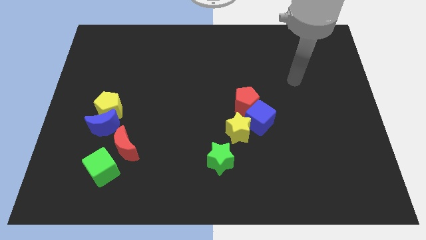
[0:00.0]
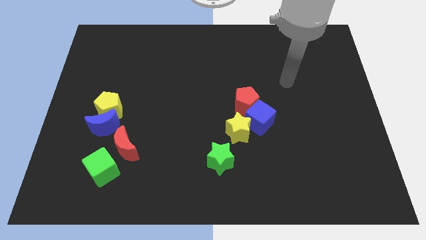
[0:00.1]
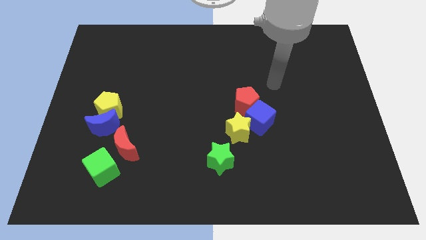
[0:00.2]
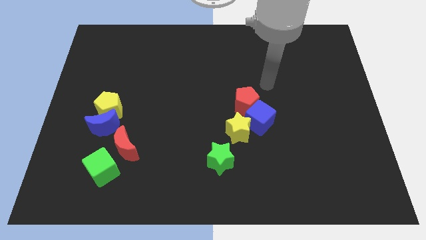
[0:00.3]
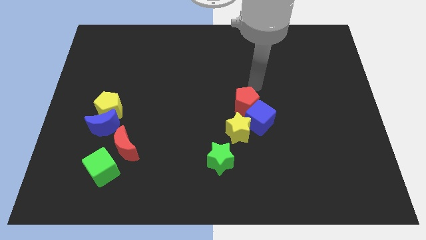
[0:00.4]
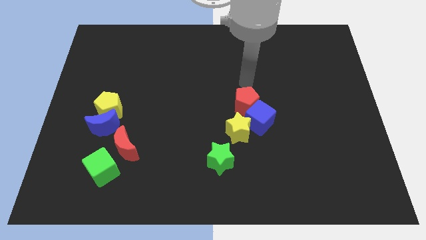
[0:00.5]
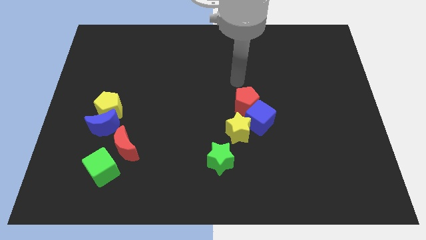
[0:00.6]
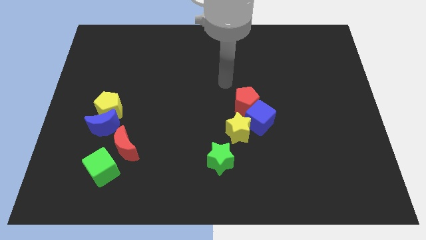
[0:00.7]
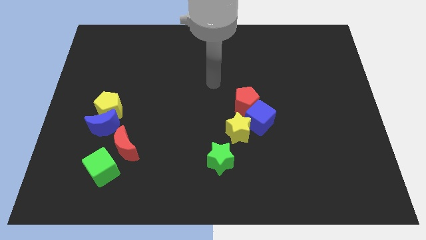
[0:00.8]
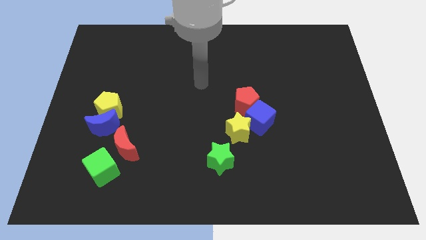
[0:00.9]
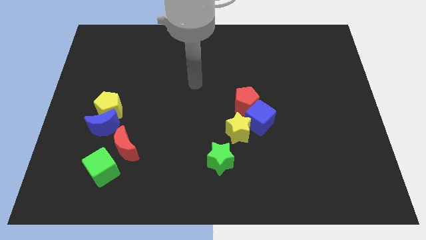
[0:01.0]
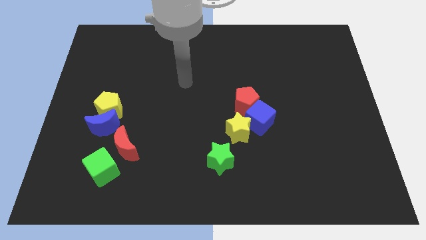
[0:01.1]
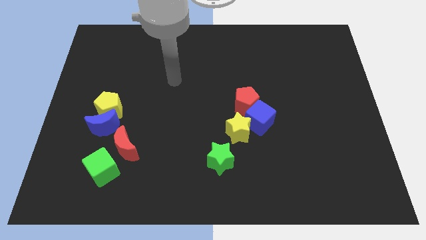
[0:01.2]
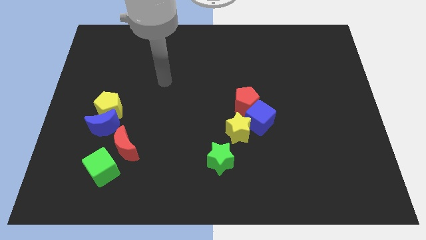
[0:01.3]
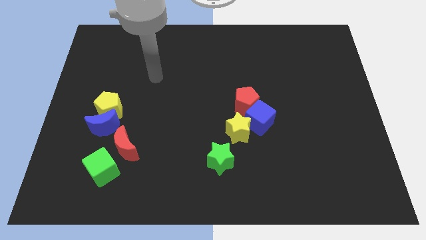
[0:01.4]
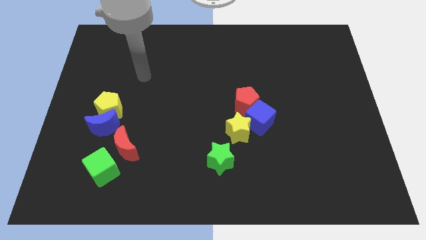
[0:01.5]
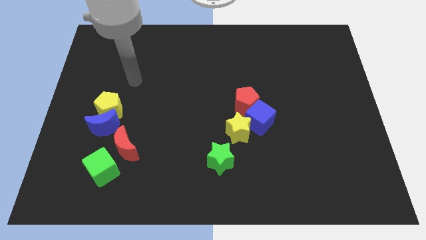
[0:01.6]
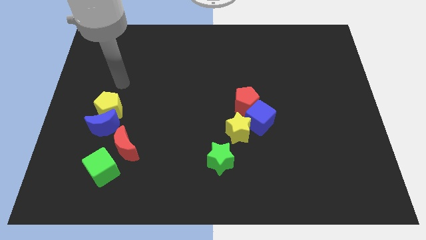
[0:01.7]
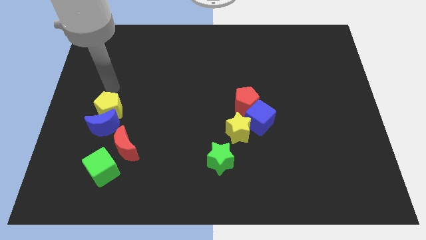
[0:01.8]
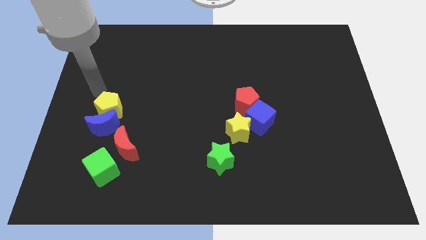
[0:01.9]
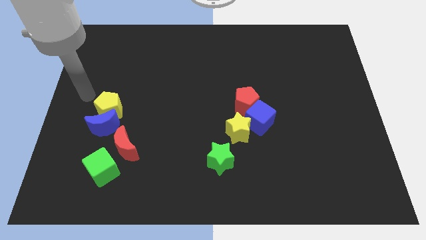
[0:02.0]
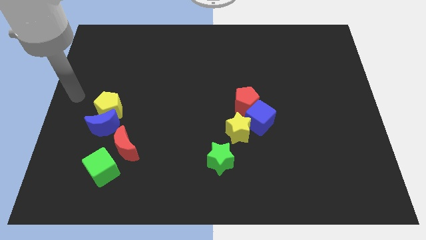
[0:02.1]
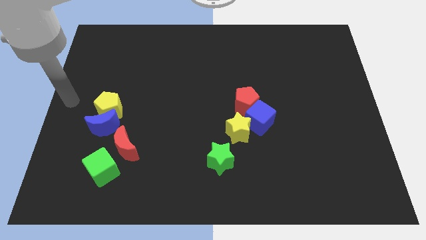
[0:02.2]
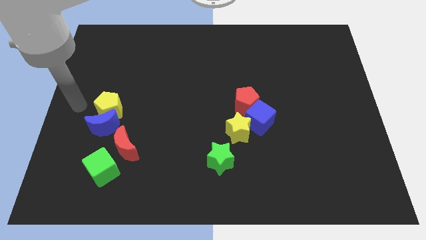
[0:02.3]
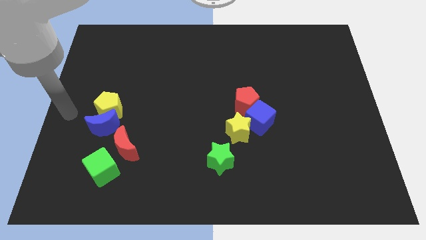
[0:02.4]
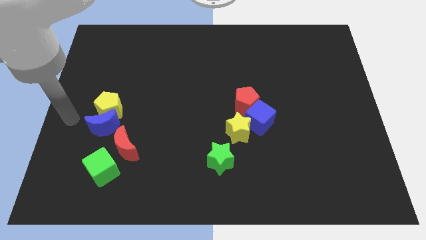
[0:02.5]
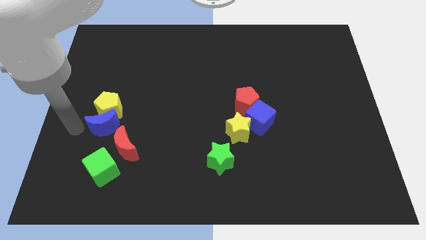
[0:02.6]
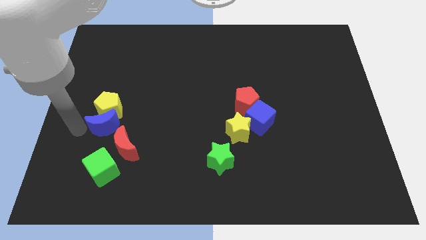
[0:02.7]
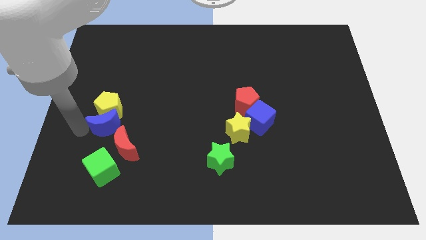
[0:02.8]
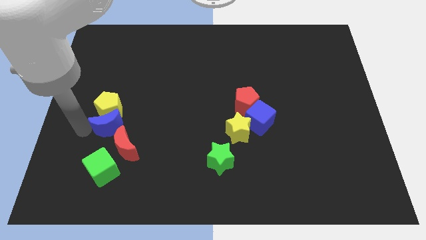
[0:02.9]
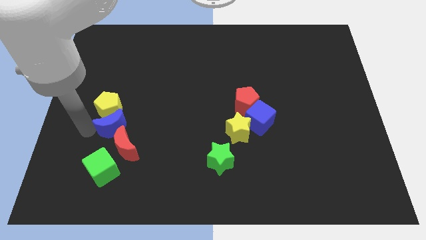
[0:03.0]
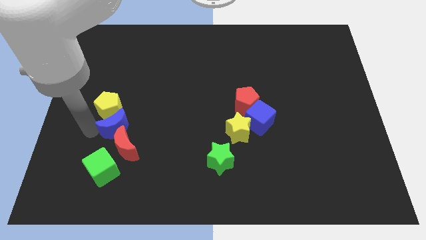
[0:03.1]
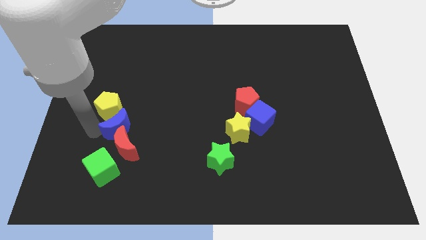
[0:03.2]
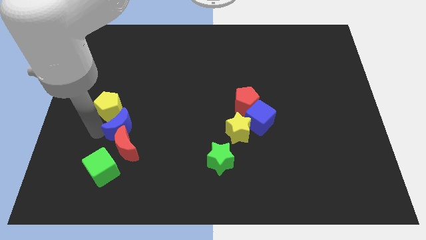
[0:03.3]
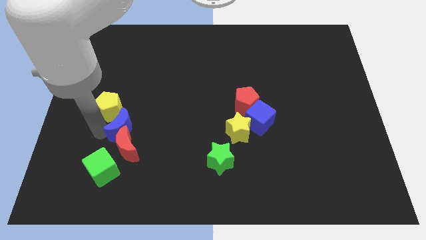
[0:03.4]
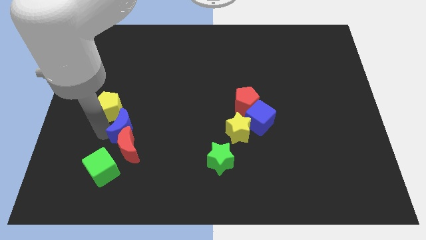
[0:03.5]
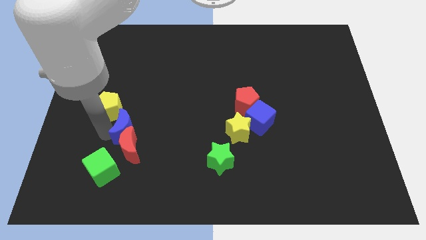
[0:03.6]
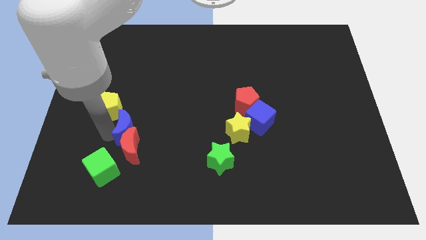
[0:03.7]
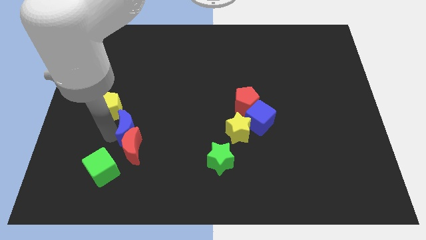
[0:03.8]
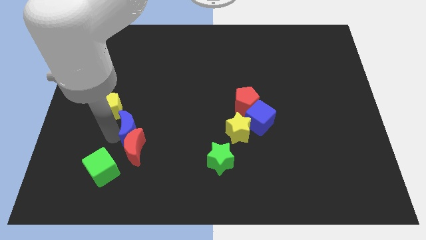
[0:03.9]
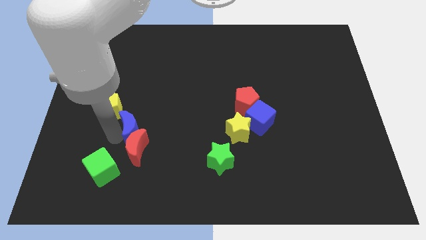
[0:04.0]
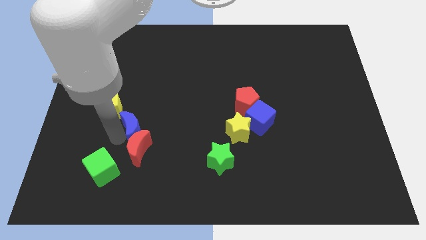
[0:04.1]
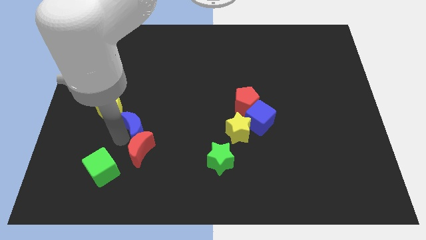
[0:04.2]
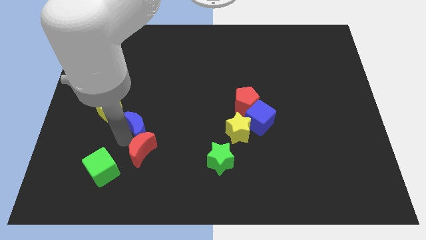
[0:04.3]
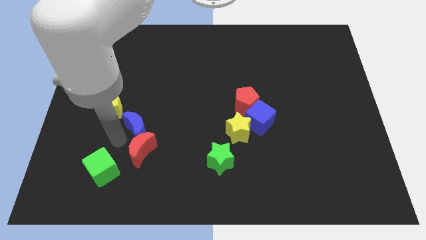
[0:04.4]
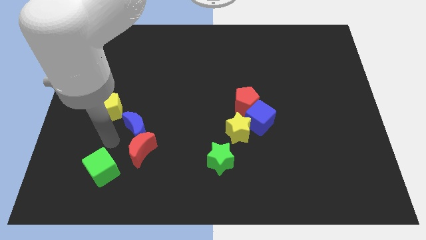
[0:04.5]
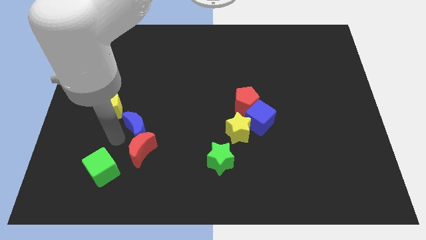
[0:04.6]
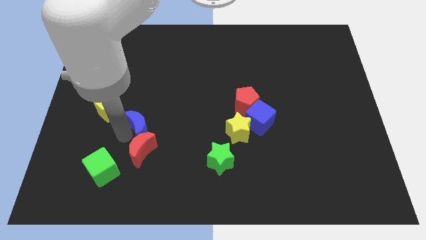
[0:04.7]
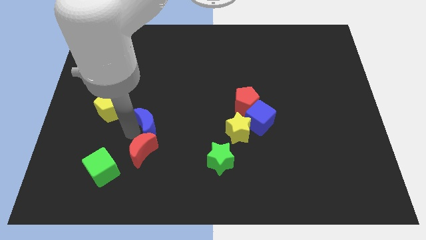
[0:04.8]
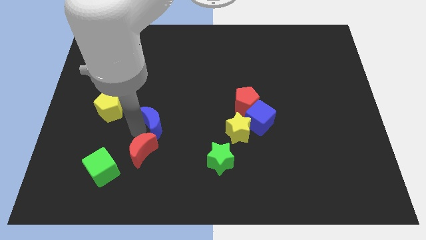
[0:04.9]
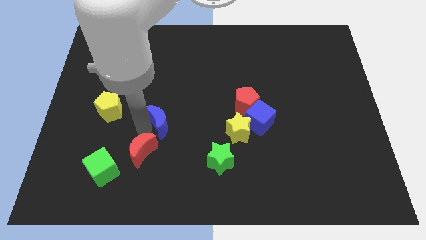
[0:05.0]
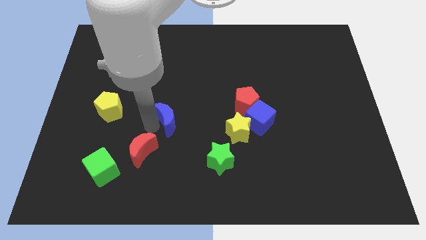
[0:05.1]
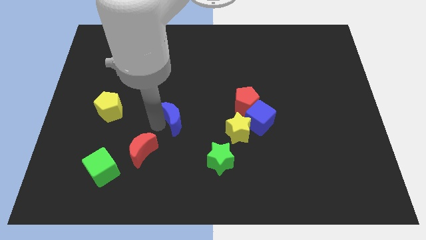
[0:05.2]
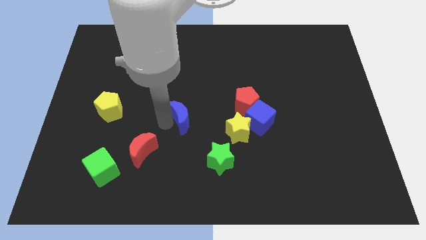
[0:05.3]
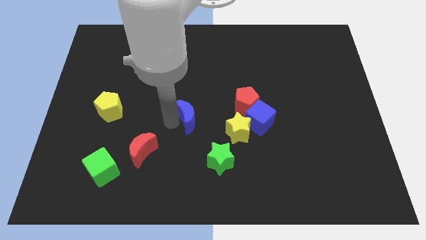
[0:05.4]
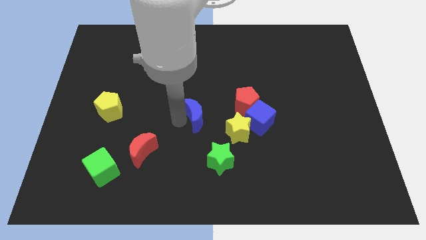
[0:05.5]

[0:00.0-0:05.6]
slide the blue moon to the top left side of the yellow star

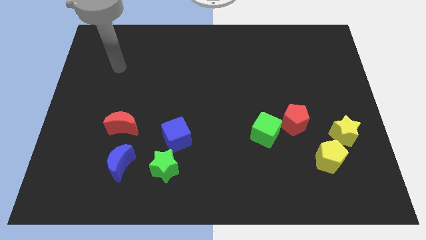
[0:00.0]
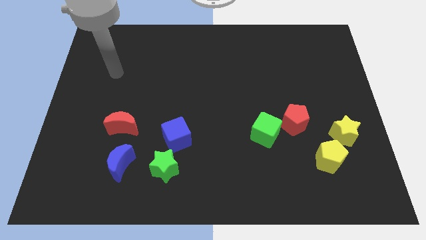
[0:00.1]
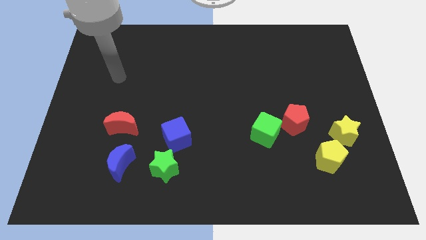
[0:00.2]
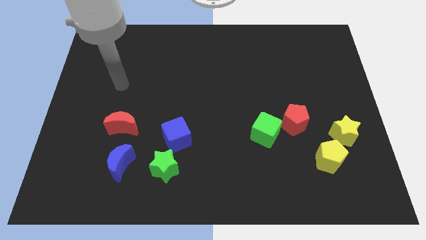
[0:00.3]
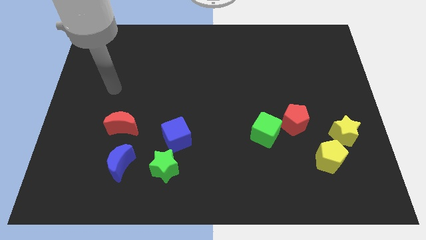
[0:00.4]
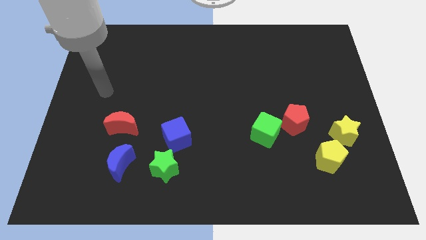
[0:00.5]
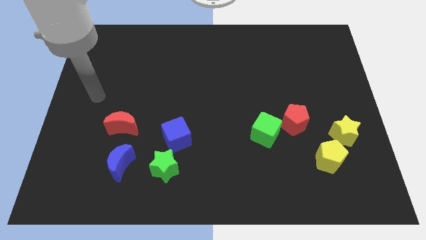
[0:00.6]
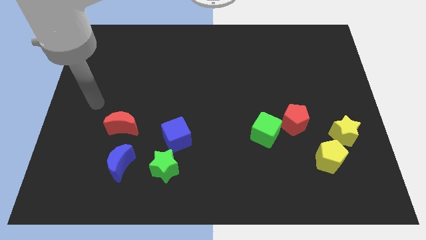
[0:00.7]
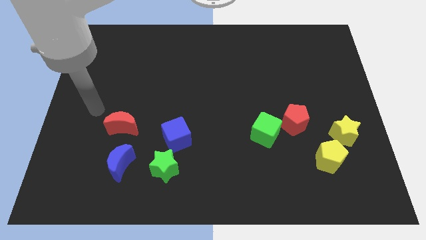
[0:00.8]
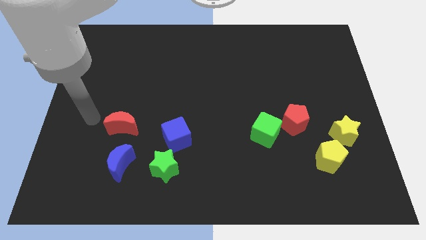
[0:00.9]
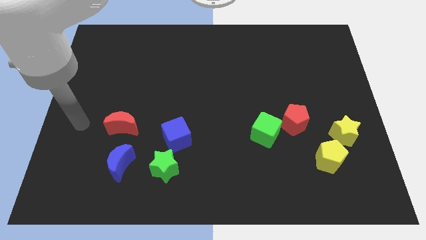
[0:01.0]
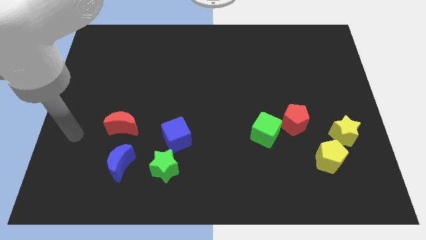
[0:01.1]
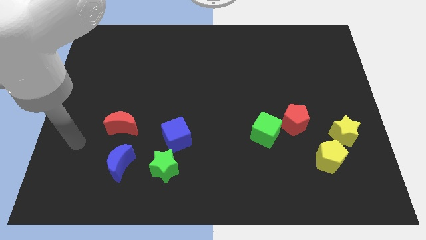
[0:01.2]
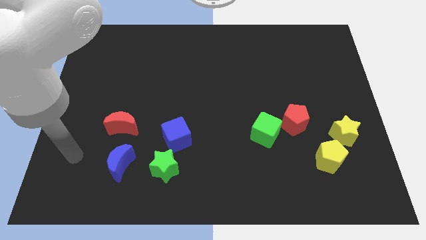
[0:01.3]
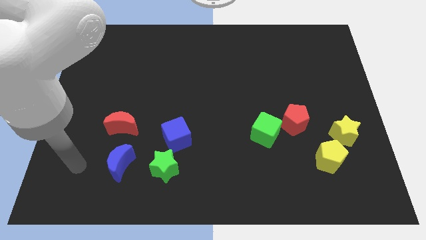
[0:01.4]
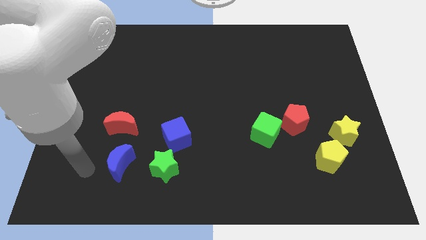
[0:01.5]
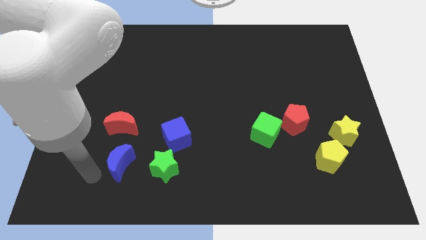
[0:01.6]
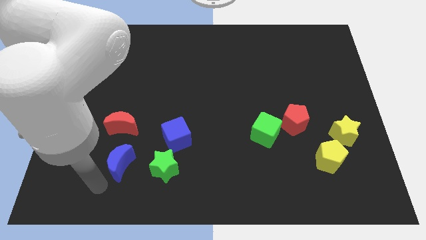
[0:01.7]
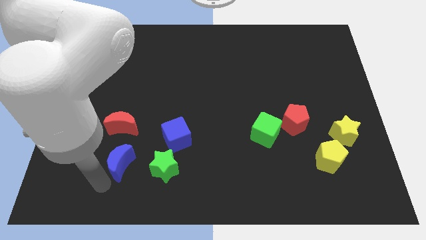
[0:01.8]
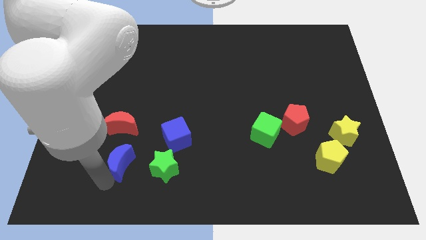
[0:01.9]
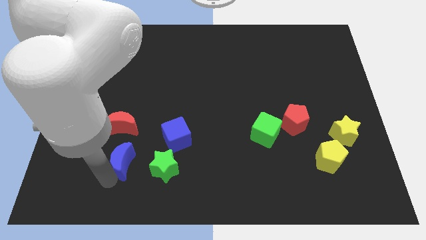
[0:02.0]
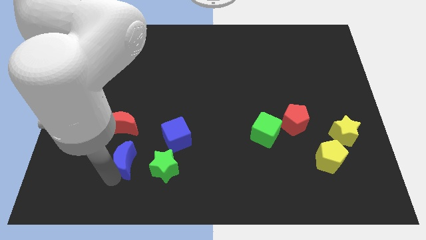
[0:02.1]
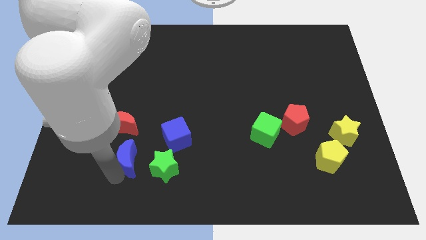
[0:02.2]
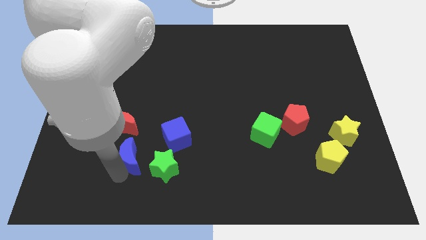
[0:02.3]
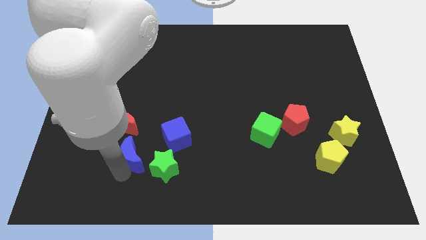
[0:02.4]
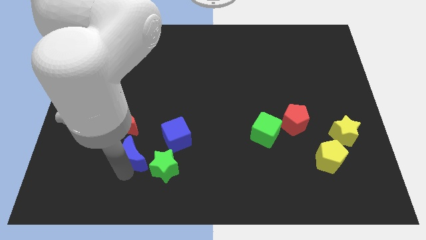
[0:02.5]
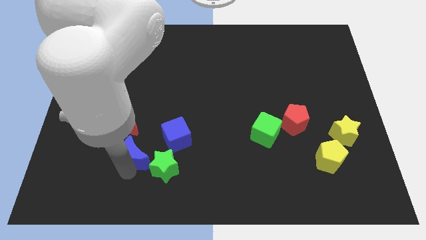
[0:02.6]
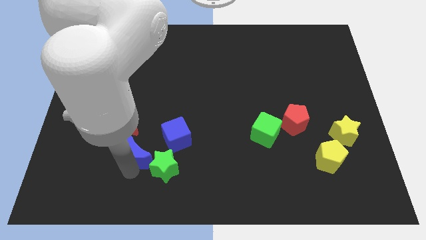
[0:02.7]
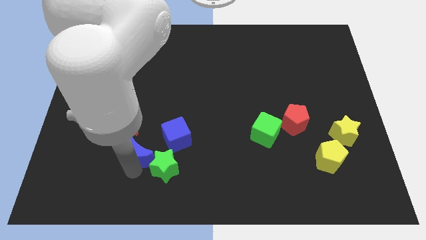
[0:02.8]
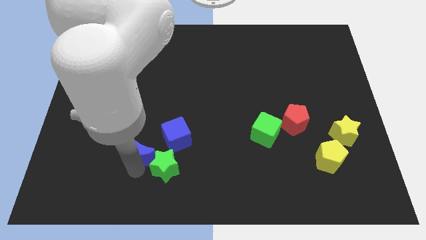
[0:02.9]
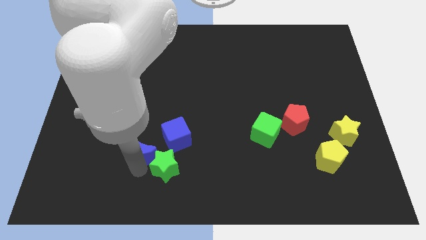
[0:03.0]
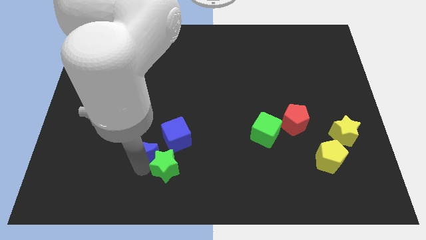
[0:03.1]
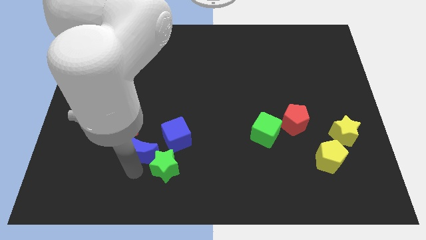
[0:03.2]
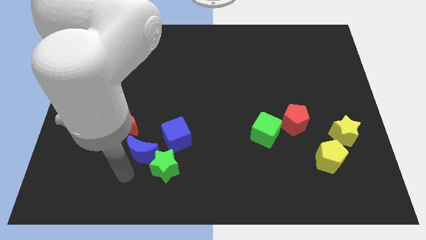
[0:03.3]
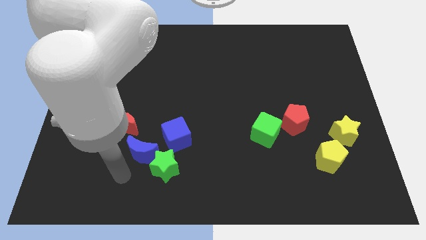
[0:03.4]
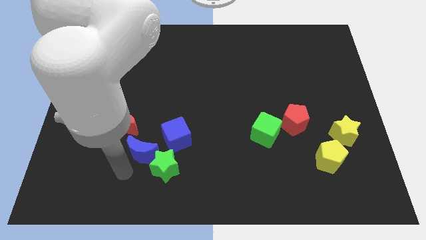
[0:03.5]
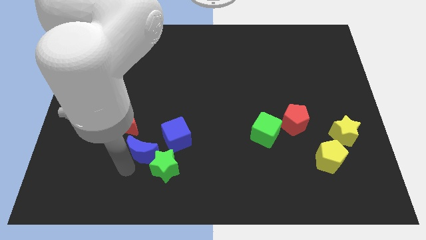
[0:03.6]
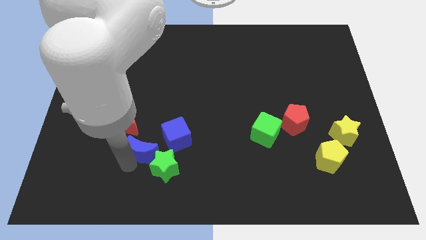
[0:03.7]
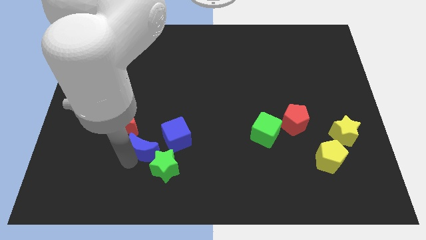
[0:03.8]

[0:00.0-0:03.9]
put the blue moon above the green star
